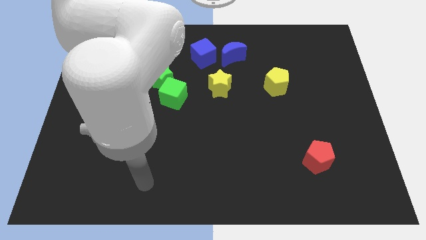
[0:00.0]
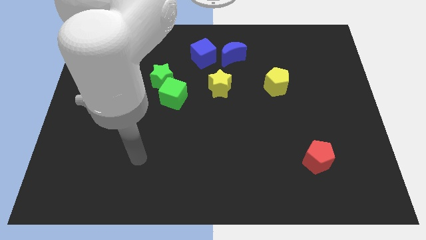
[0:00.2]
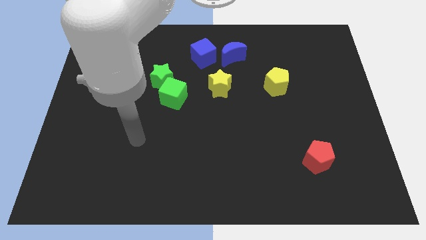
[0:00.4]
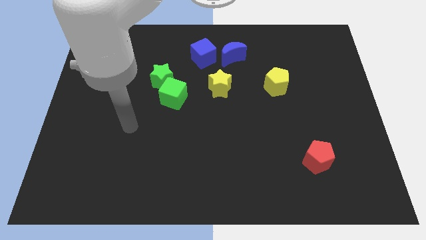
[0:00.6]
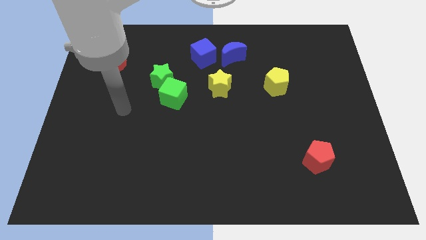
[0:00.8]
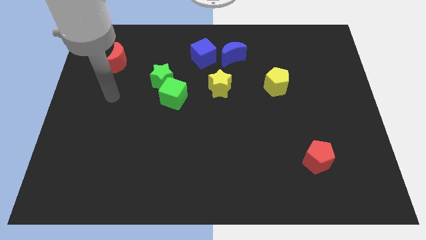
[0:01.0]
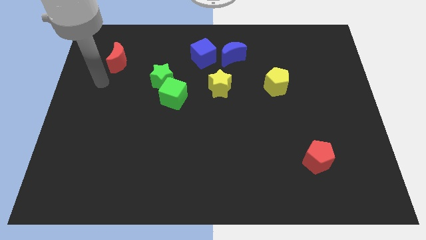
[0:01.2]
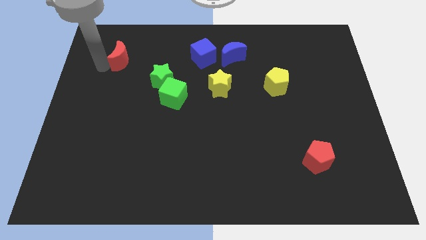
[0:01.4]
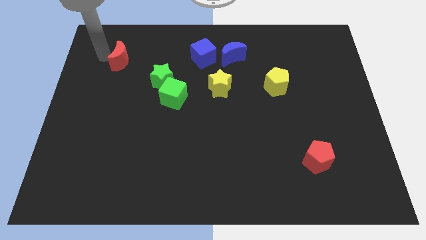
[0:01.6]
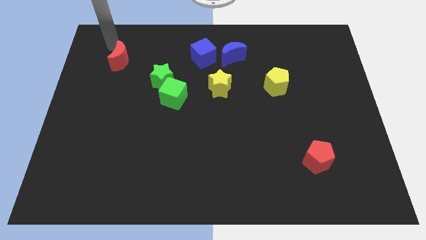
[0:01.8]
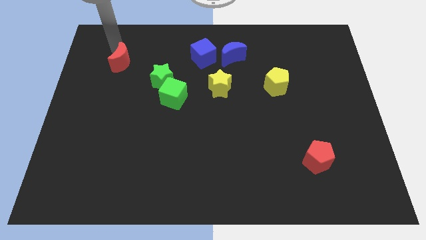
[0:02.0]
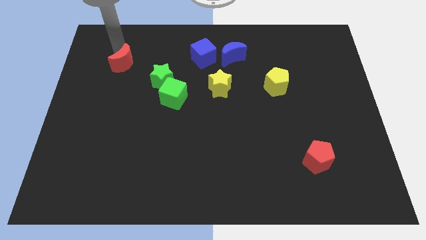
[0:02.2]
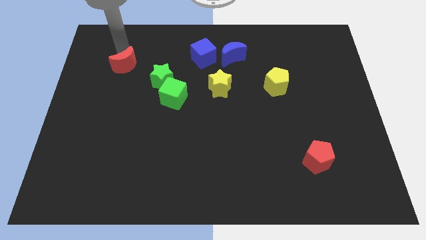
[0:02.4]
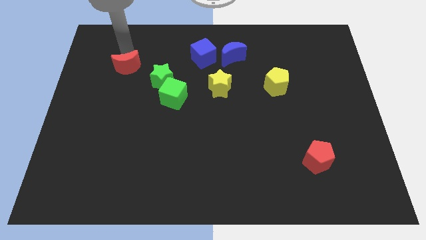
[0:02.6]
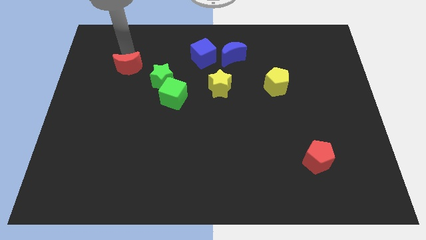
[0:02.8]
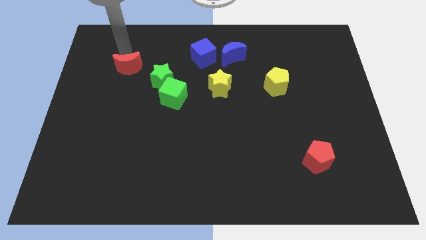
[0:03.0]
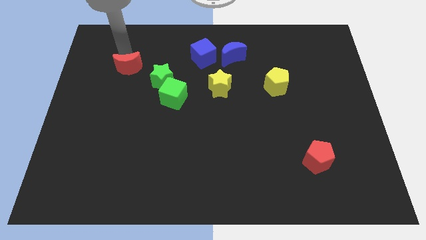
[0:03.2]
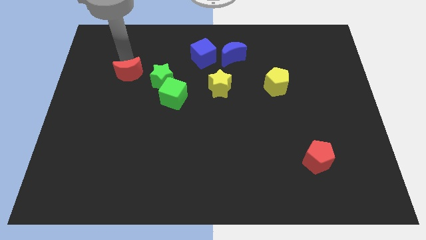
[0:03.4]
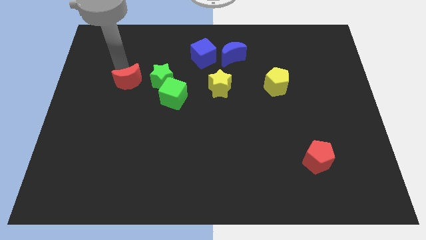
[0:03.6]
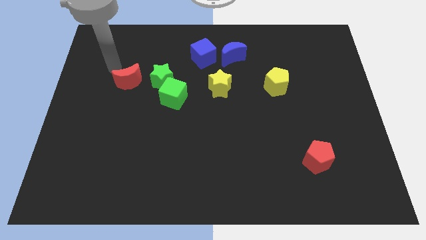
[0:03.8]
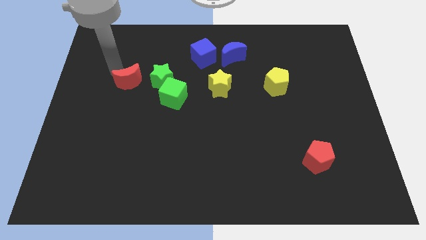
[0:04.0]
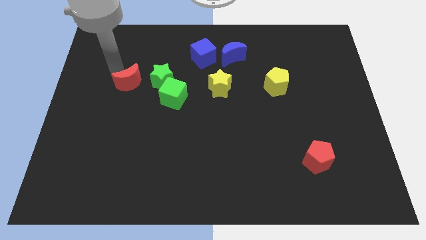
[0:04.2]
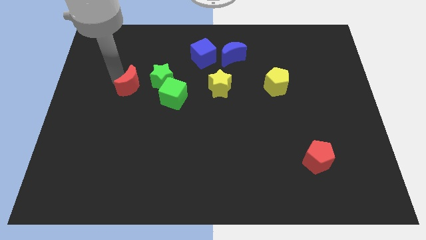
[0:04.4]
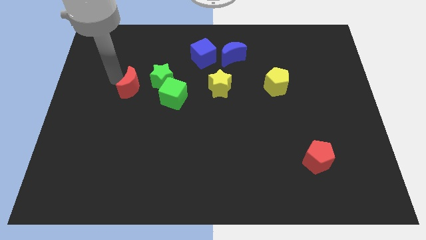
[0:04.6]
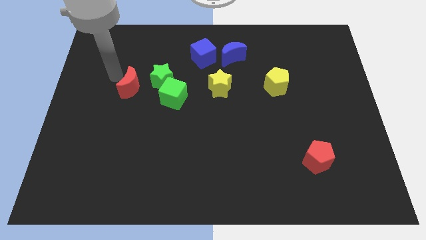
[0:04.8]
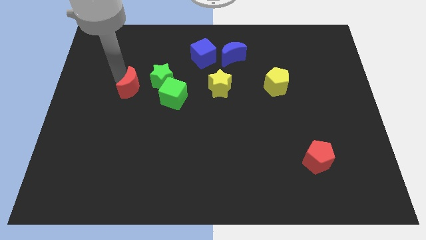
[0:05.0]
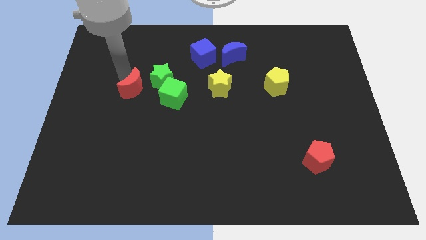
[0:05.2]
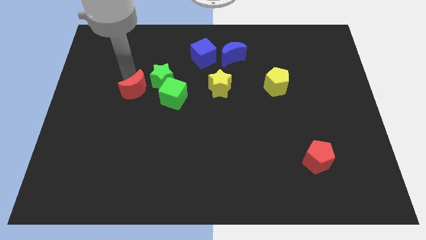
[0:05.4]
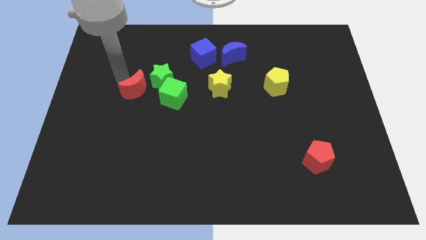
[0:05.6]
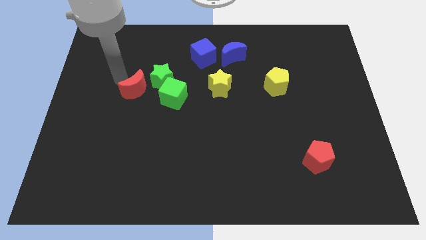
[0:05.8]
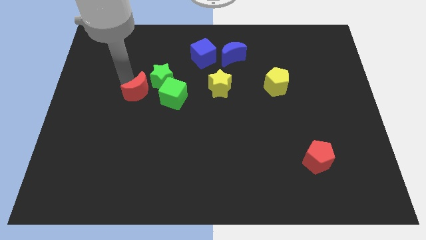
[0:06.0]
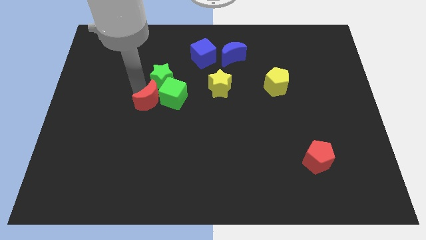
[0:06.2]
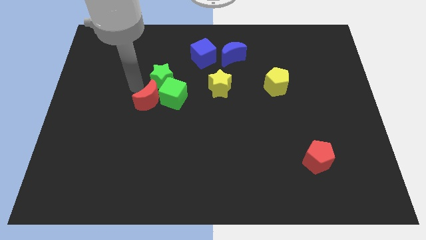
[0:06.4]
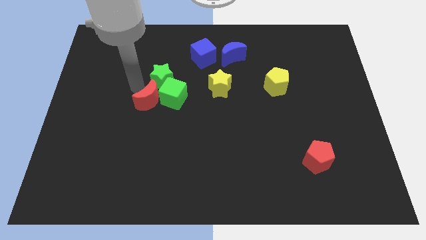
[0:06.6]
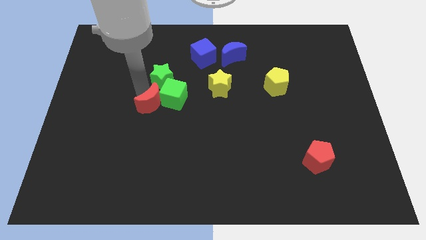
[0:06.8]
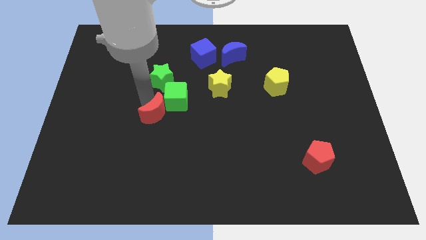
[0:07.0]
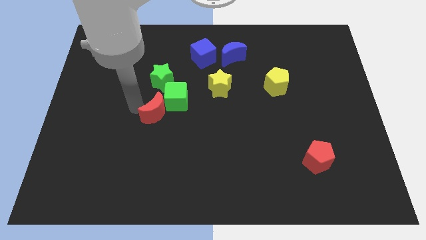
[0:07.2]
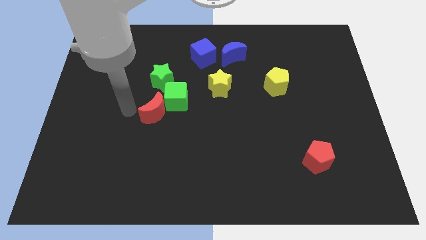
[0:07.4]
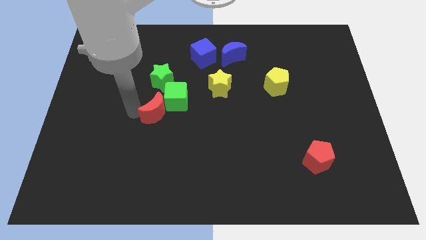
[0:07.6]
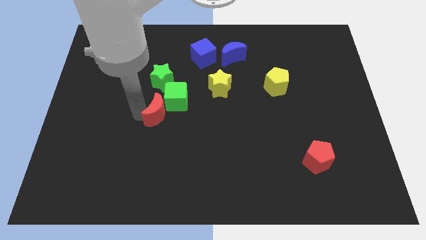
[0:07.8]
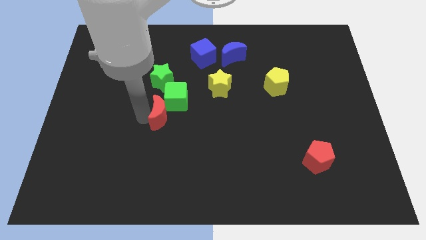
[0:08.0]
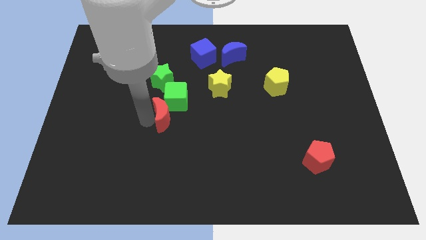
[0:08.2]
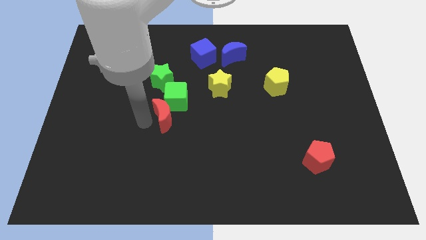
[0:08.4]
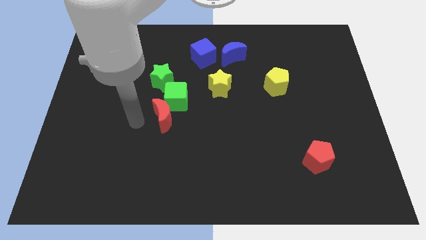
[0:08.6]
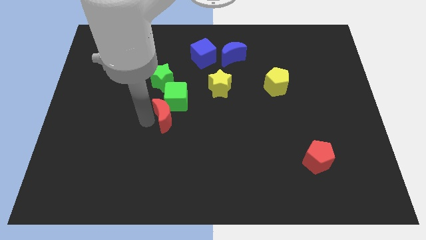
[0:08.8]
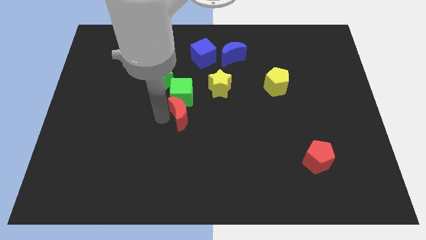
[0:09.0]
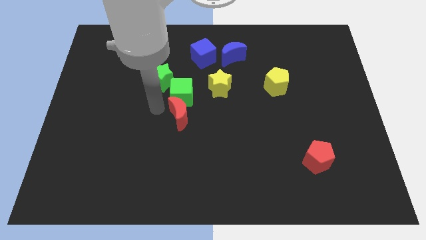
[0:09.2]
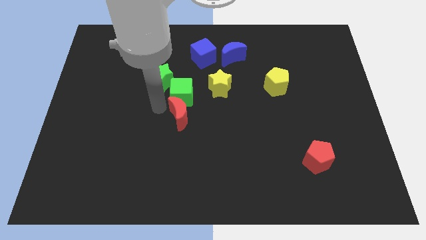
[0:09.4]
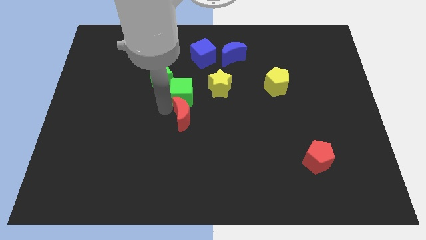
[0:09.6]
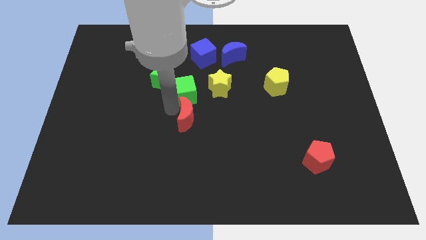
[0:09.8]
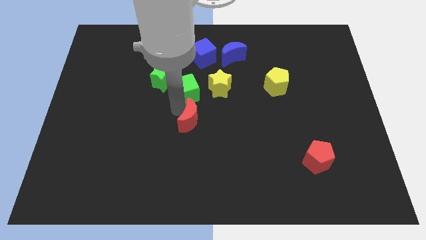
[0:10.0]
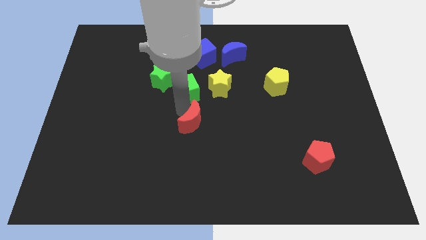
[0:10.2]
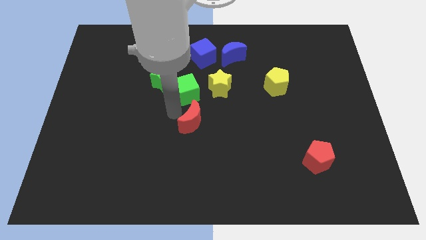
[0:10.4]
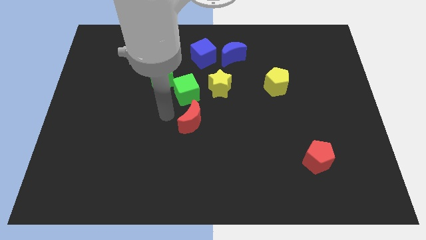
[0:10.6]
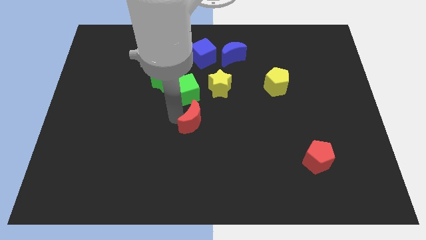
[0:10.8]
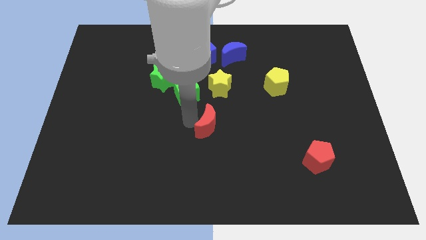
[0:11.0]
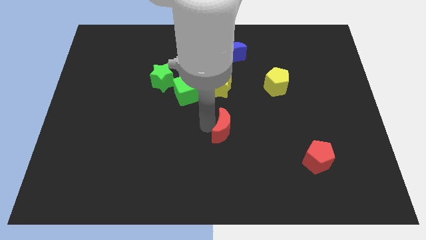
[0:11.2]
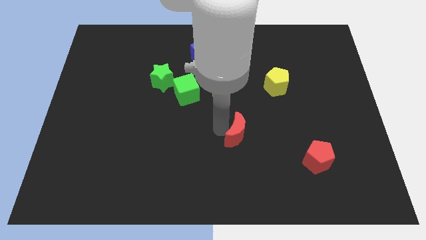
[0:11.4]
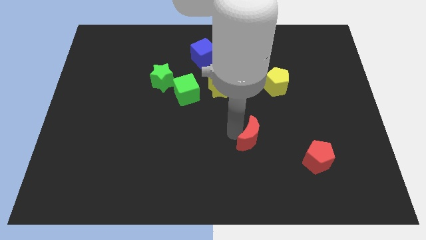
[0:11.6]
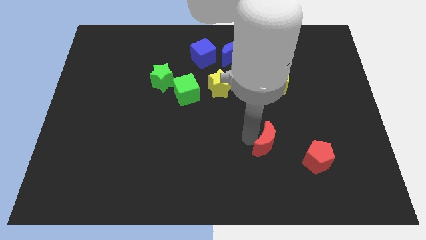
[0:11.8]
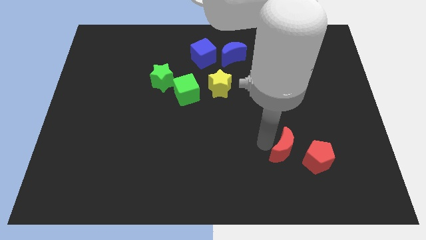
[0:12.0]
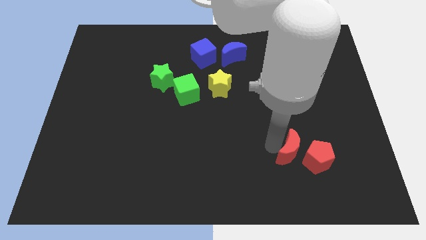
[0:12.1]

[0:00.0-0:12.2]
push the red moon towards the red pentagon

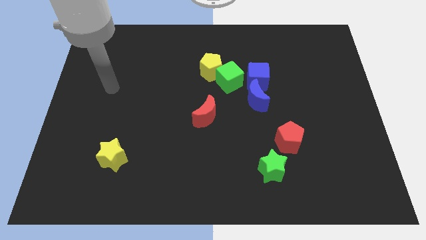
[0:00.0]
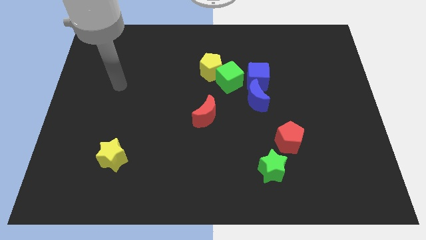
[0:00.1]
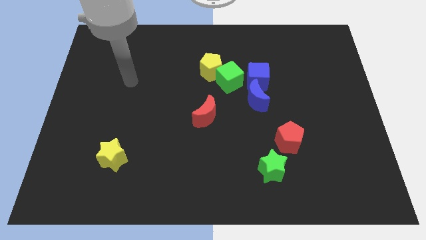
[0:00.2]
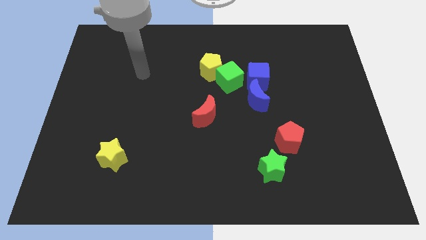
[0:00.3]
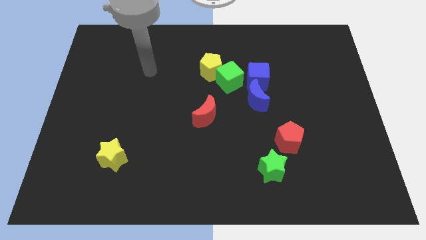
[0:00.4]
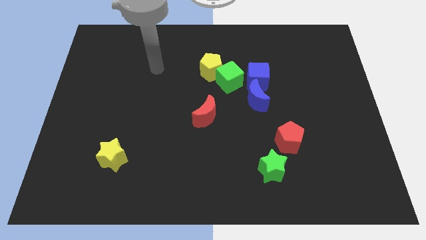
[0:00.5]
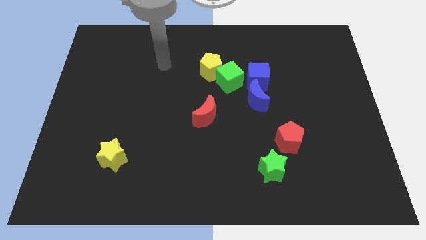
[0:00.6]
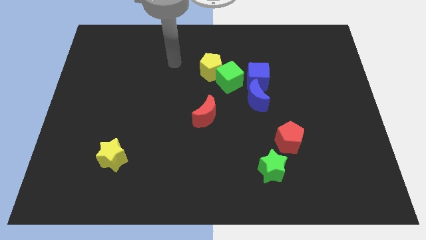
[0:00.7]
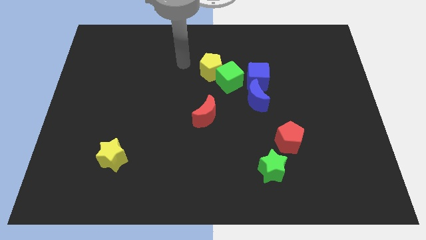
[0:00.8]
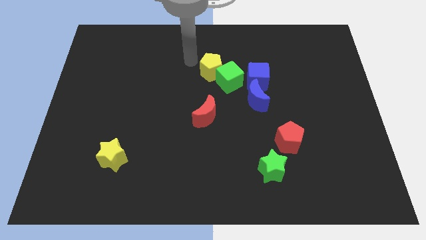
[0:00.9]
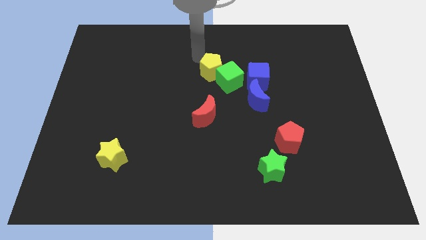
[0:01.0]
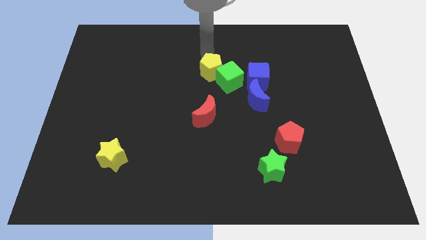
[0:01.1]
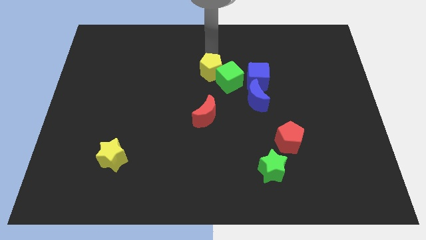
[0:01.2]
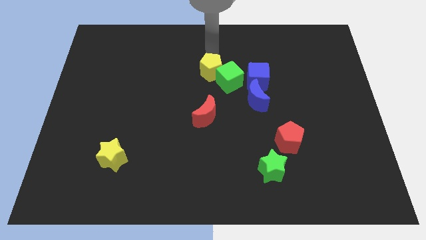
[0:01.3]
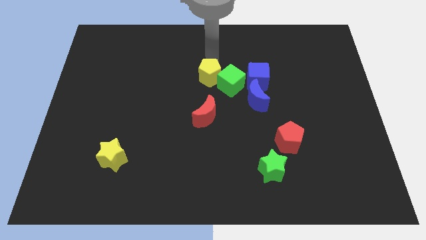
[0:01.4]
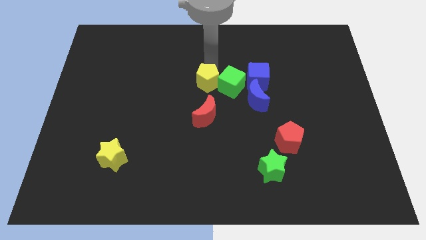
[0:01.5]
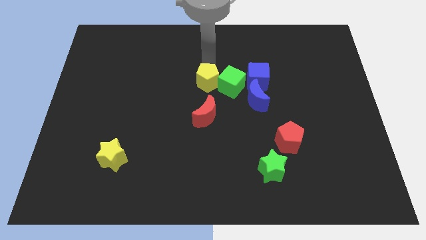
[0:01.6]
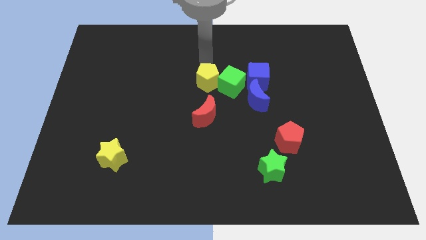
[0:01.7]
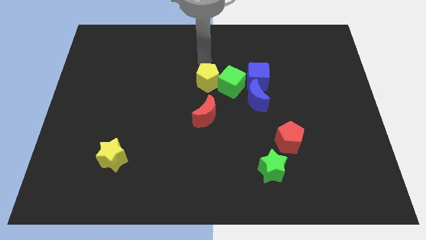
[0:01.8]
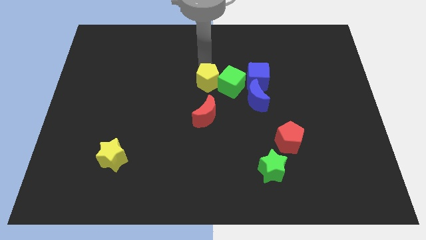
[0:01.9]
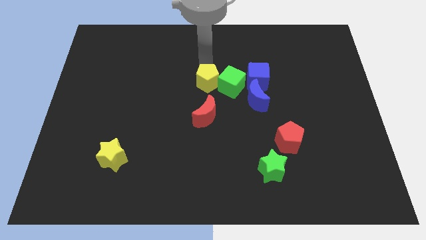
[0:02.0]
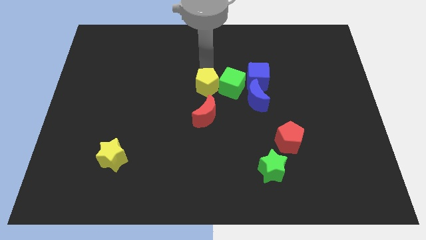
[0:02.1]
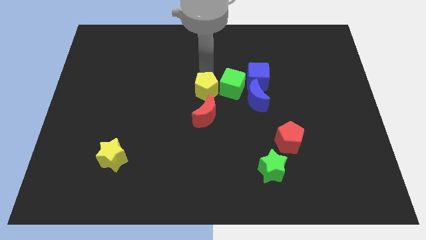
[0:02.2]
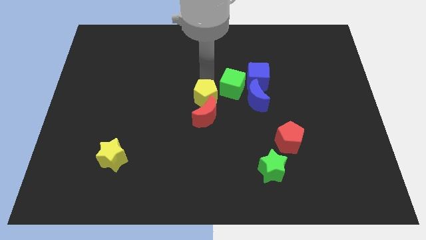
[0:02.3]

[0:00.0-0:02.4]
put the yellow pentagon close to the red moon
